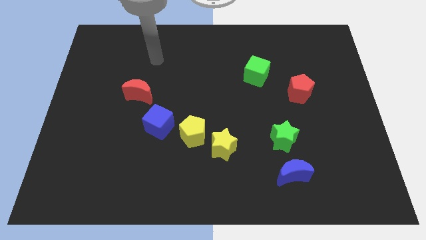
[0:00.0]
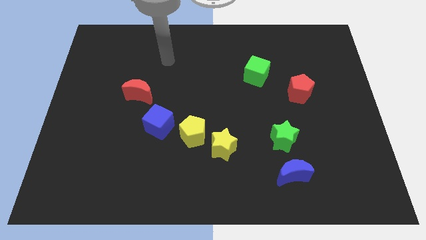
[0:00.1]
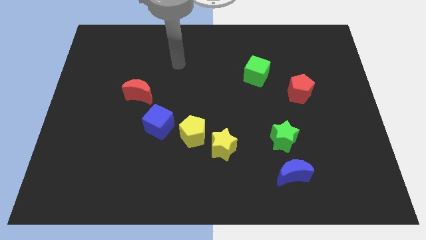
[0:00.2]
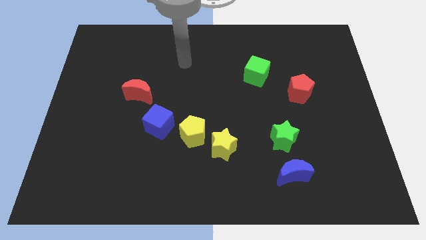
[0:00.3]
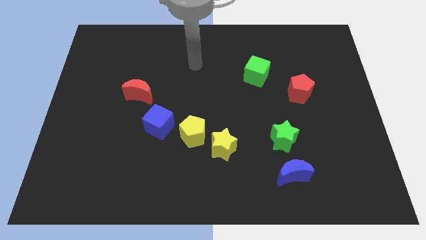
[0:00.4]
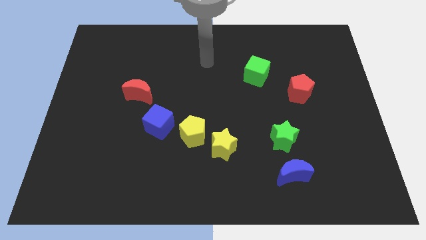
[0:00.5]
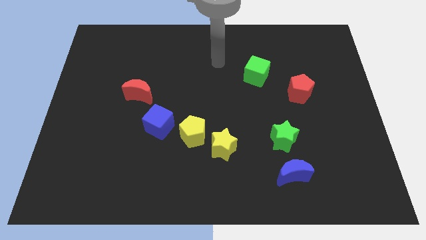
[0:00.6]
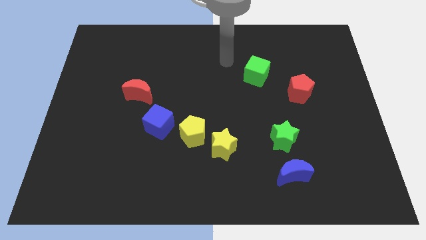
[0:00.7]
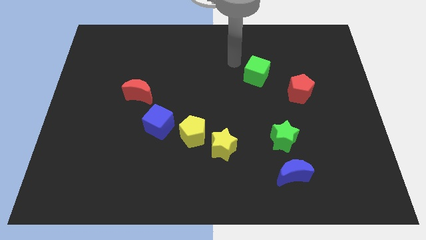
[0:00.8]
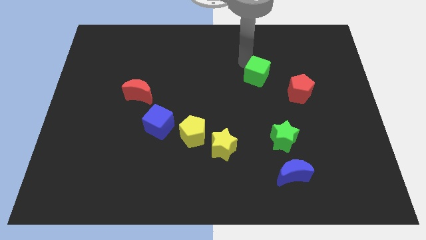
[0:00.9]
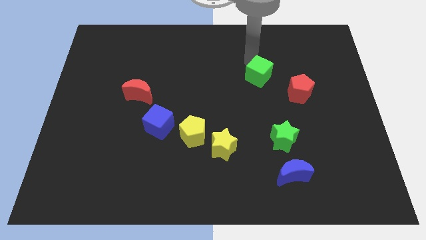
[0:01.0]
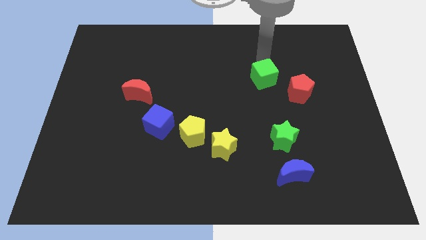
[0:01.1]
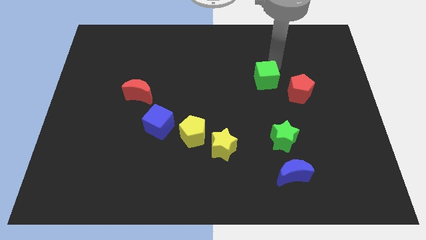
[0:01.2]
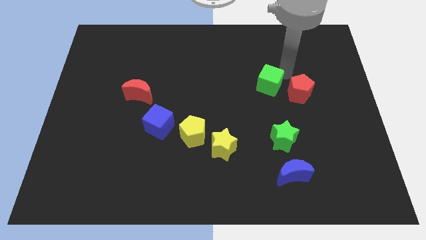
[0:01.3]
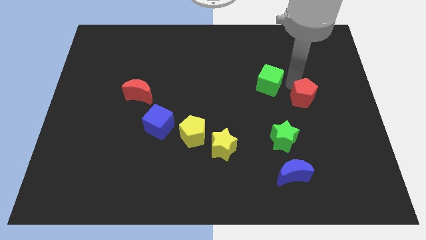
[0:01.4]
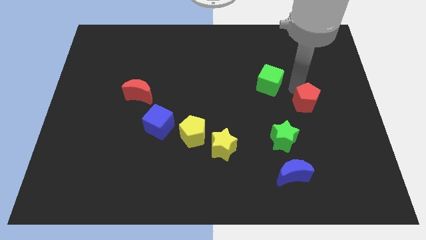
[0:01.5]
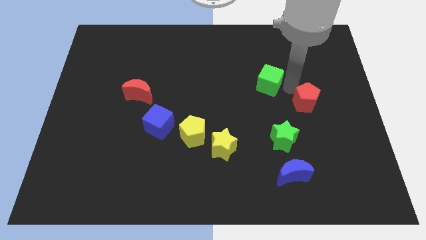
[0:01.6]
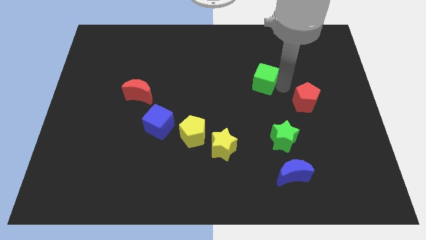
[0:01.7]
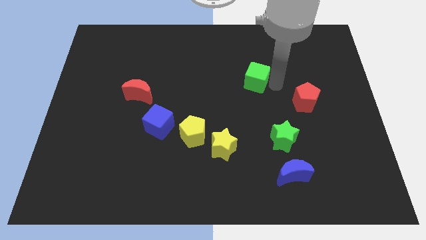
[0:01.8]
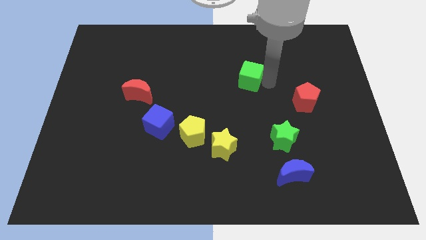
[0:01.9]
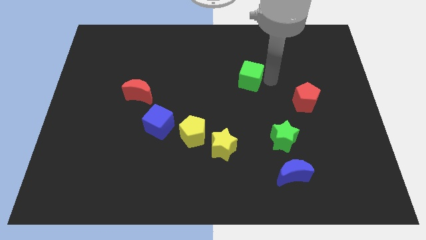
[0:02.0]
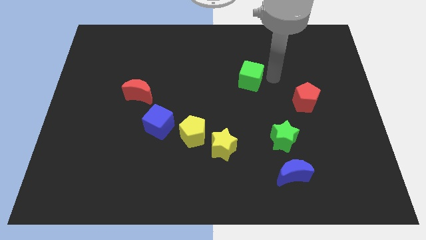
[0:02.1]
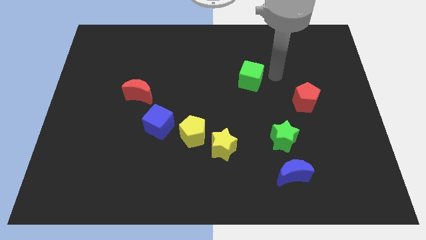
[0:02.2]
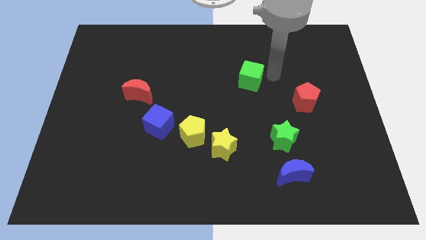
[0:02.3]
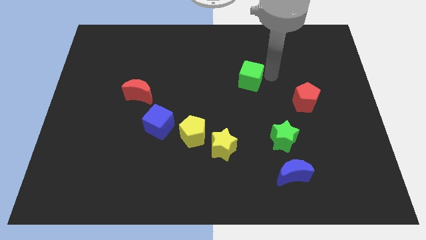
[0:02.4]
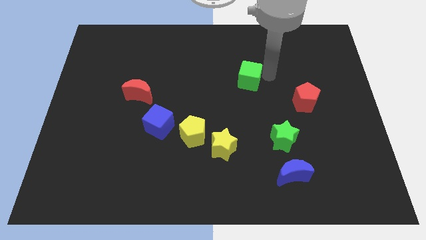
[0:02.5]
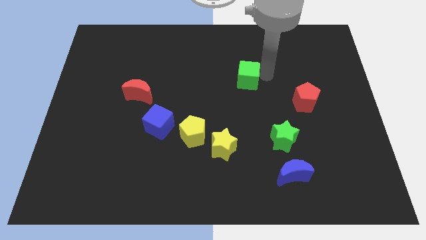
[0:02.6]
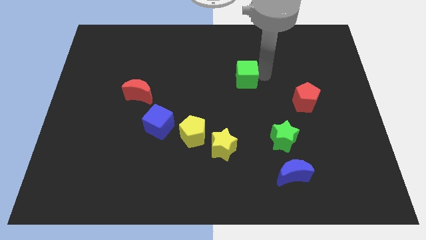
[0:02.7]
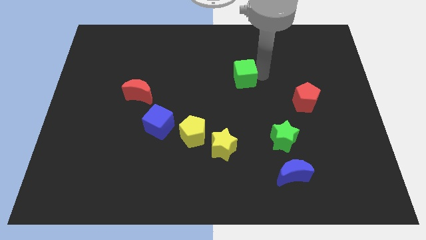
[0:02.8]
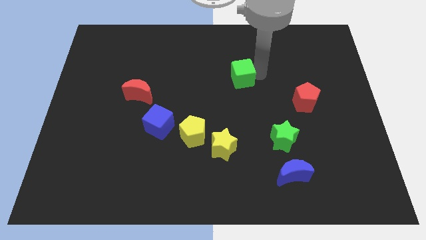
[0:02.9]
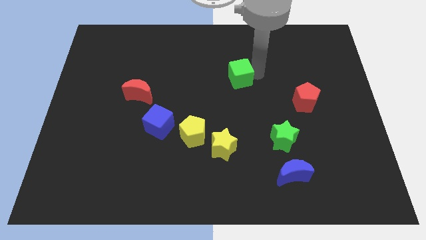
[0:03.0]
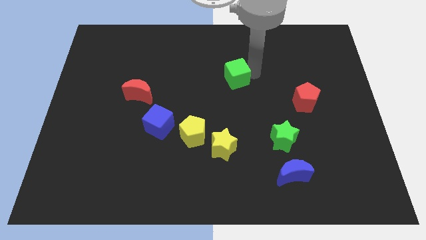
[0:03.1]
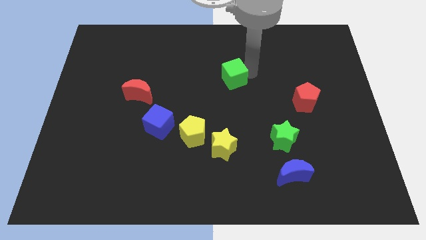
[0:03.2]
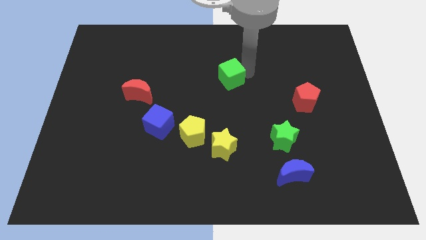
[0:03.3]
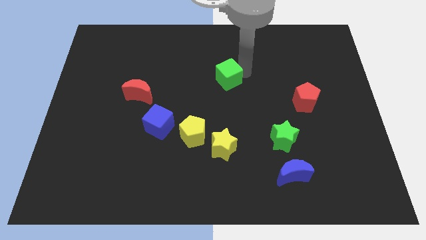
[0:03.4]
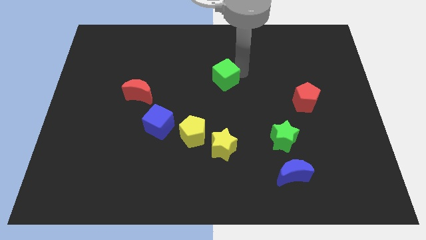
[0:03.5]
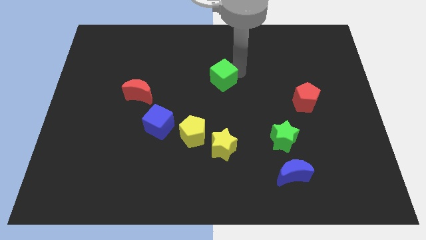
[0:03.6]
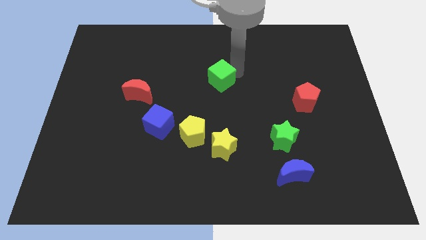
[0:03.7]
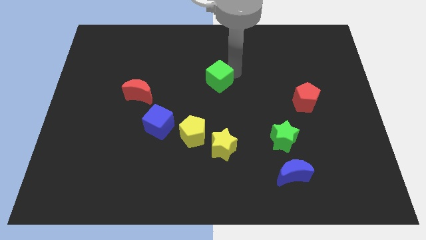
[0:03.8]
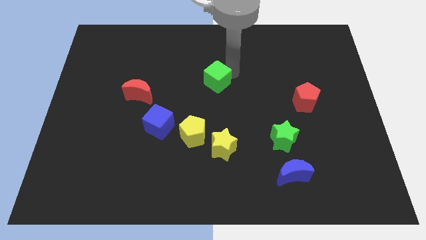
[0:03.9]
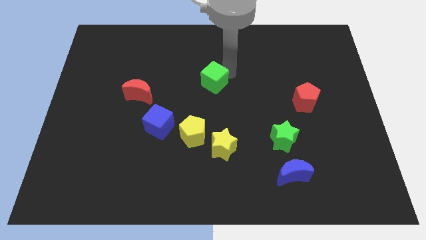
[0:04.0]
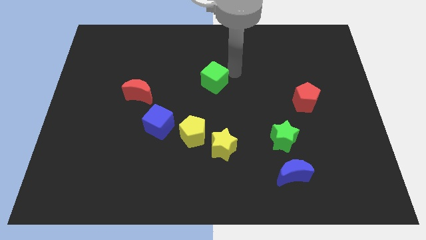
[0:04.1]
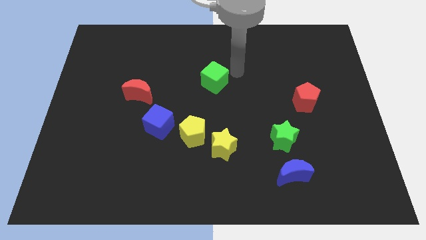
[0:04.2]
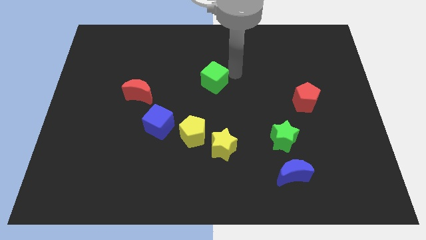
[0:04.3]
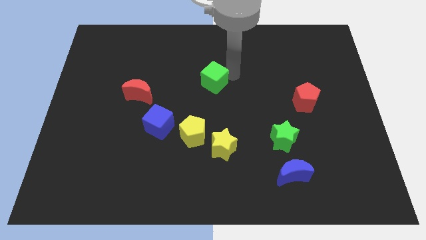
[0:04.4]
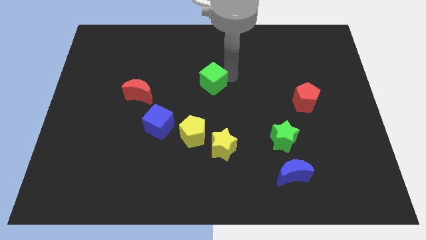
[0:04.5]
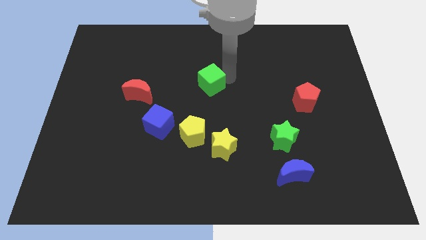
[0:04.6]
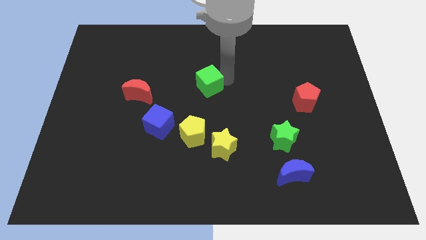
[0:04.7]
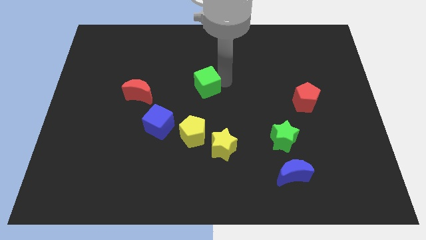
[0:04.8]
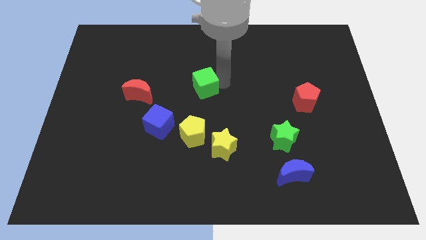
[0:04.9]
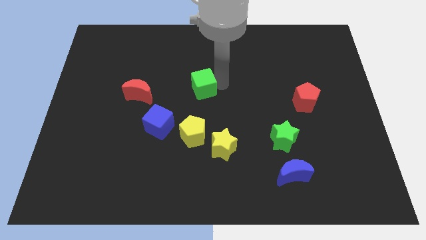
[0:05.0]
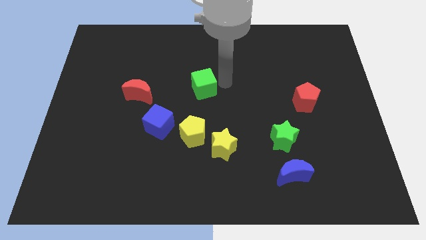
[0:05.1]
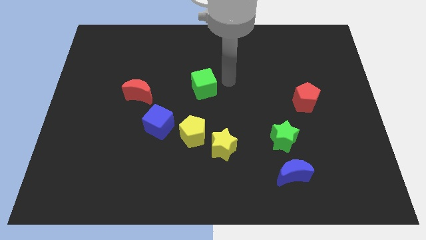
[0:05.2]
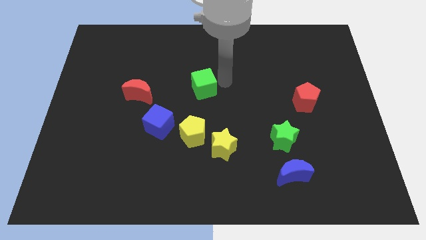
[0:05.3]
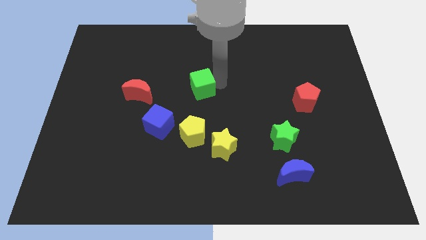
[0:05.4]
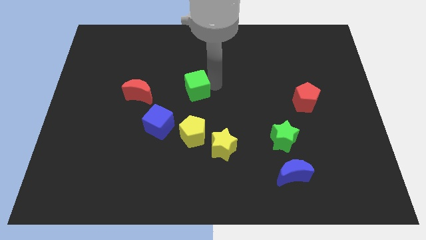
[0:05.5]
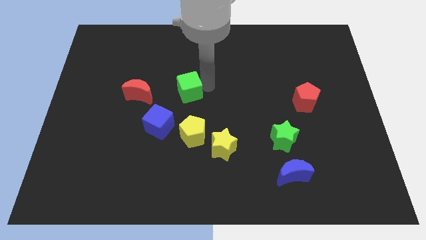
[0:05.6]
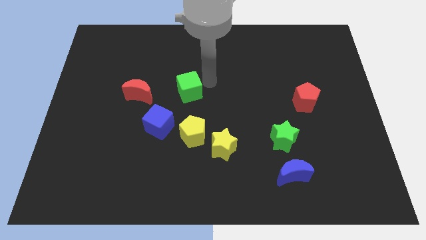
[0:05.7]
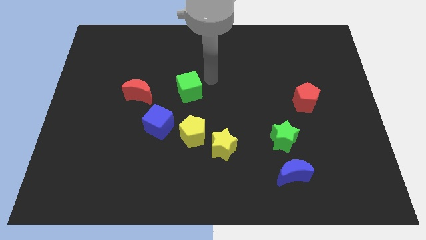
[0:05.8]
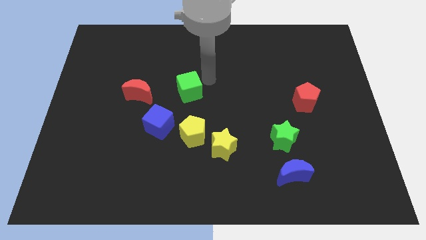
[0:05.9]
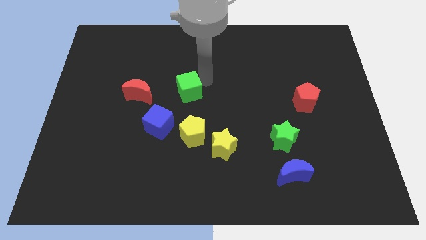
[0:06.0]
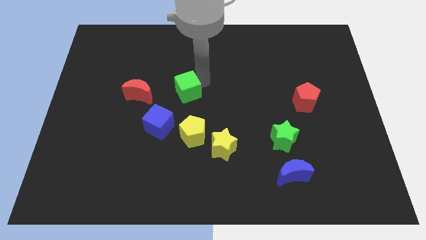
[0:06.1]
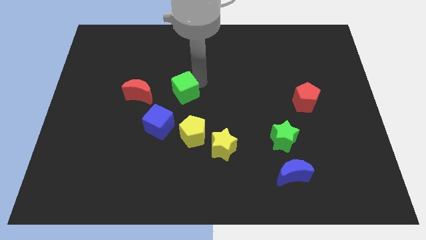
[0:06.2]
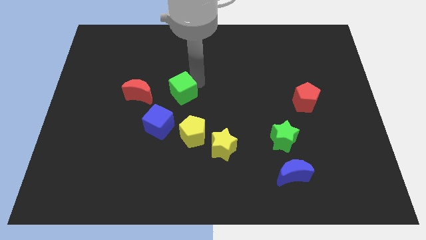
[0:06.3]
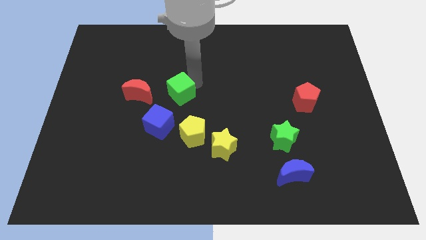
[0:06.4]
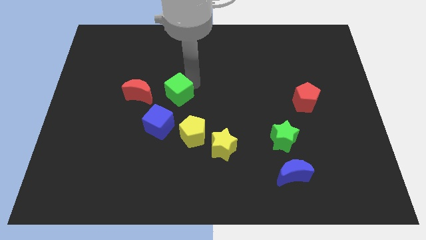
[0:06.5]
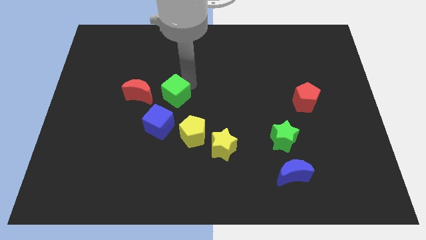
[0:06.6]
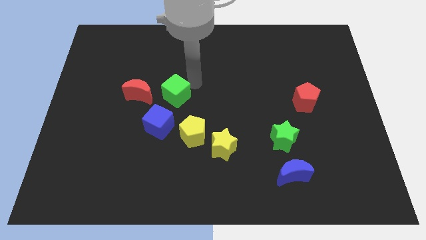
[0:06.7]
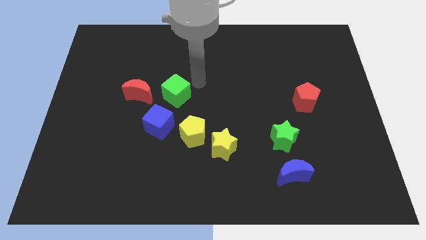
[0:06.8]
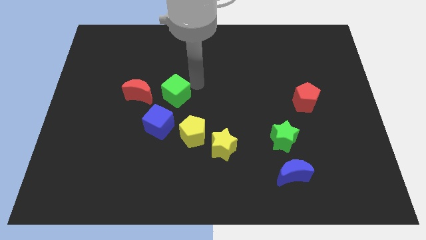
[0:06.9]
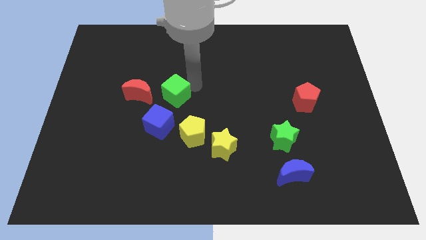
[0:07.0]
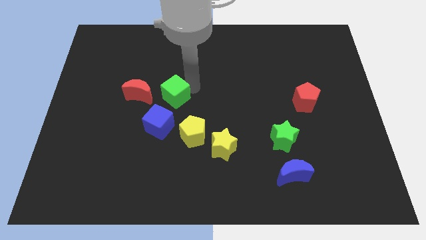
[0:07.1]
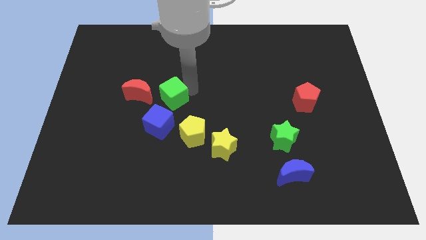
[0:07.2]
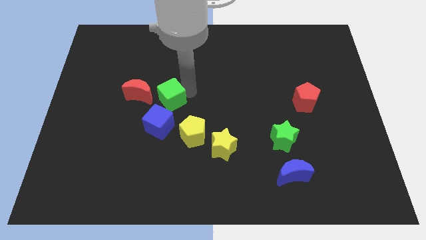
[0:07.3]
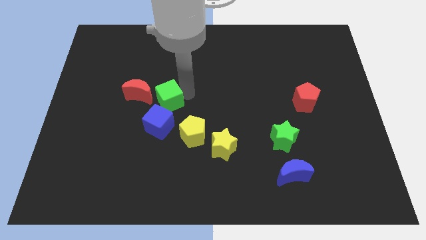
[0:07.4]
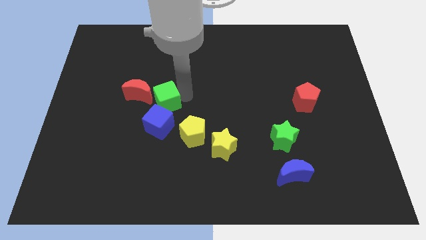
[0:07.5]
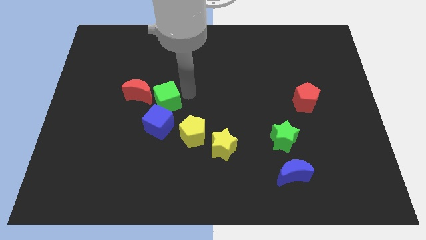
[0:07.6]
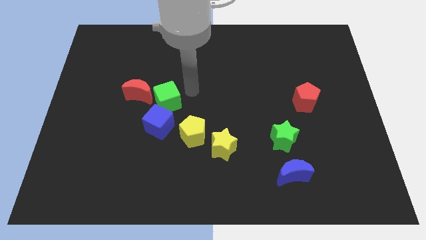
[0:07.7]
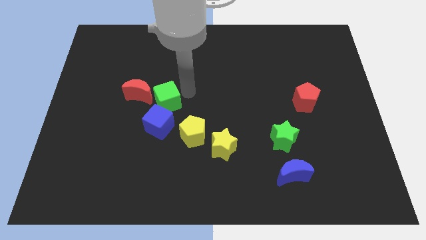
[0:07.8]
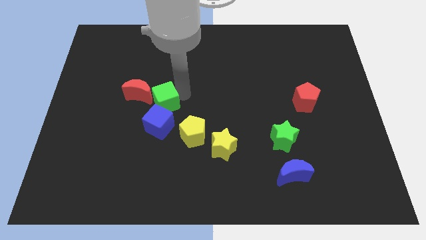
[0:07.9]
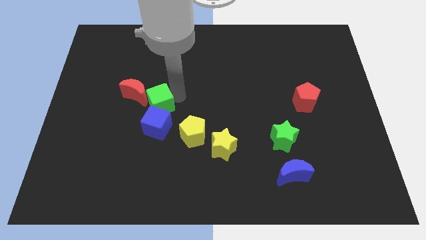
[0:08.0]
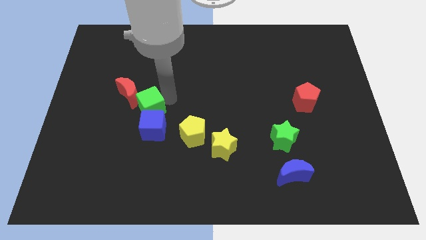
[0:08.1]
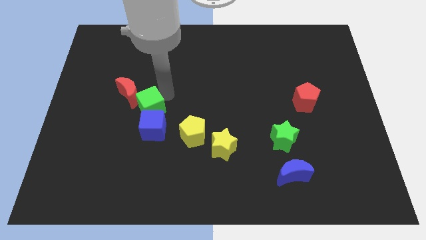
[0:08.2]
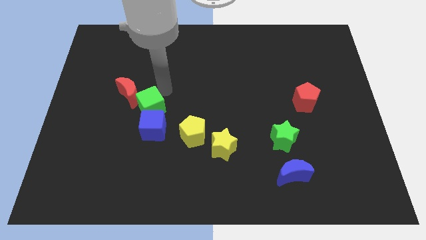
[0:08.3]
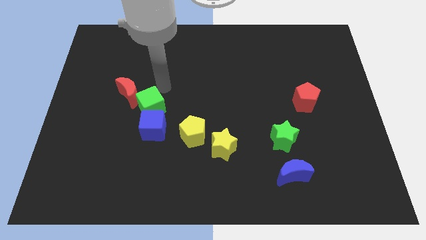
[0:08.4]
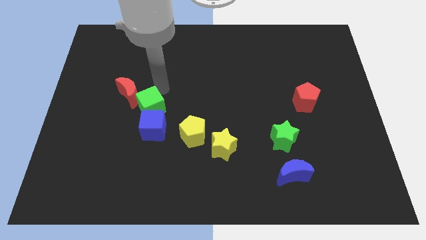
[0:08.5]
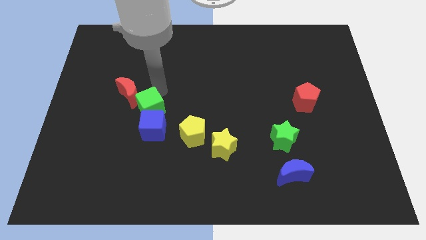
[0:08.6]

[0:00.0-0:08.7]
move the green cube down and then to the left
